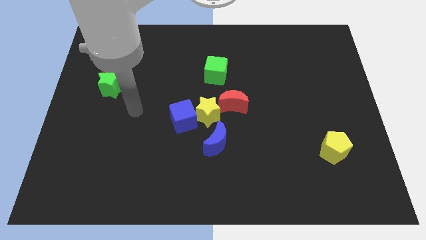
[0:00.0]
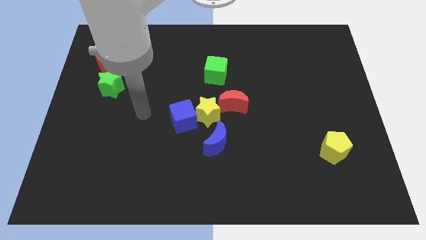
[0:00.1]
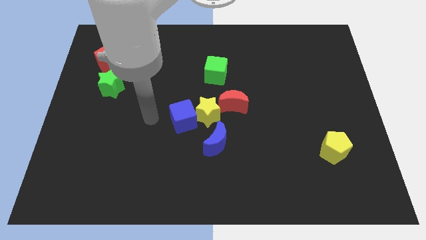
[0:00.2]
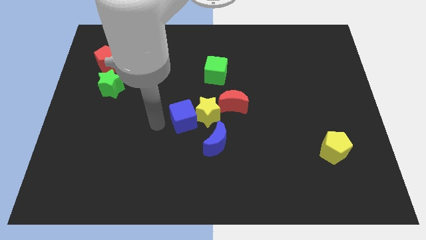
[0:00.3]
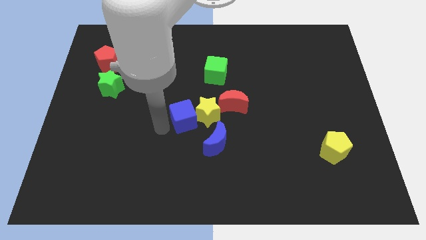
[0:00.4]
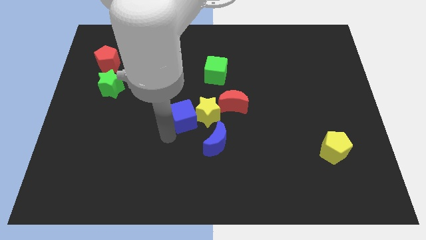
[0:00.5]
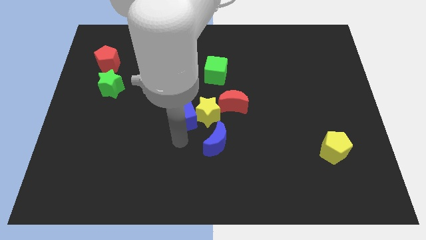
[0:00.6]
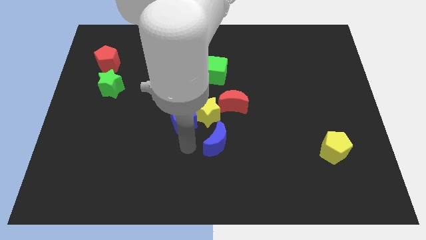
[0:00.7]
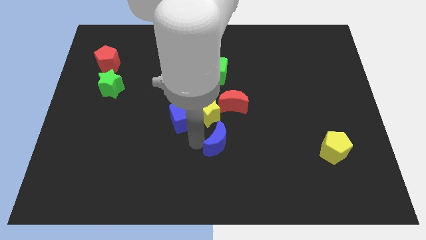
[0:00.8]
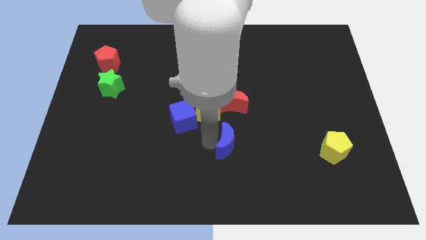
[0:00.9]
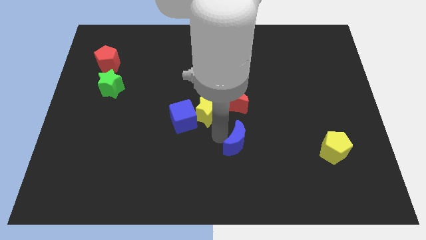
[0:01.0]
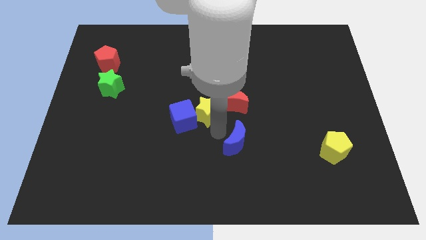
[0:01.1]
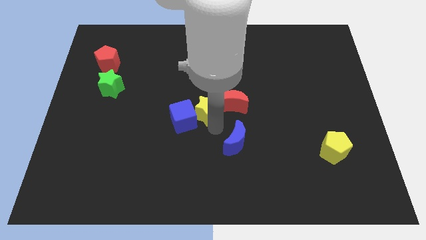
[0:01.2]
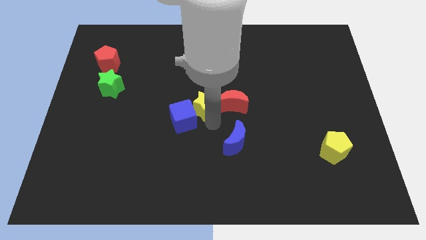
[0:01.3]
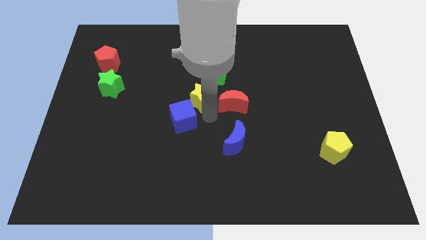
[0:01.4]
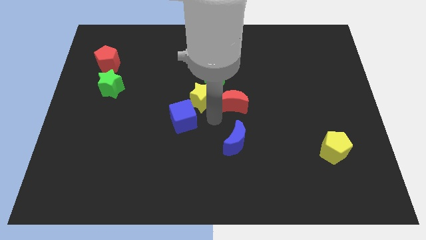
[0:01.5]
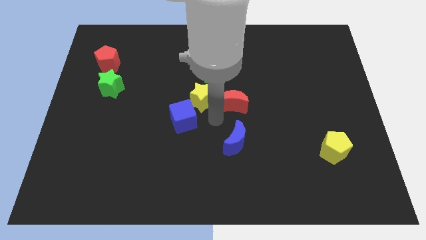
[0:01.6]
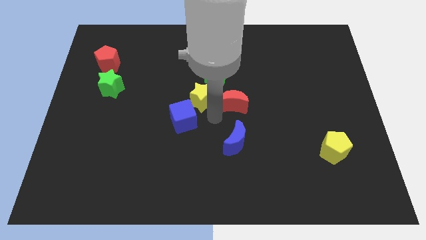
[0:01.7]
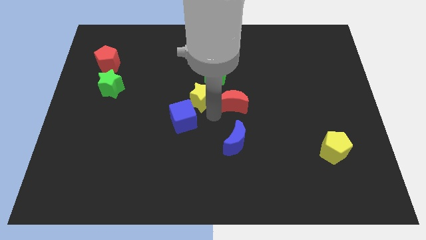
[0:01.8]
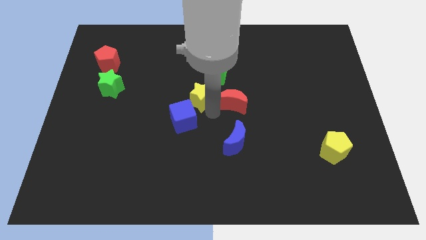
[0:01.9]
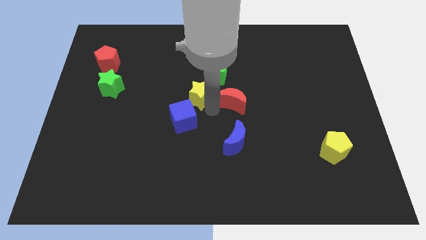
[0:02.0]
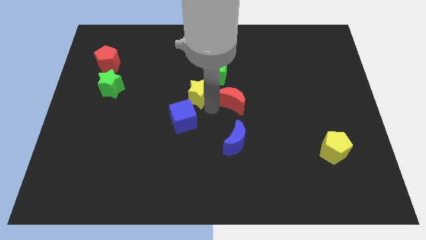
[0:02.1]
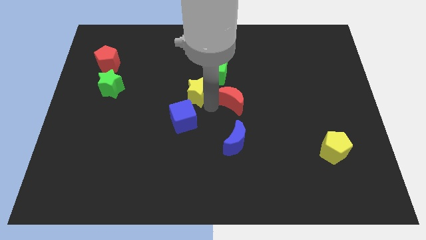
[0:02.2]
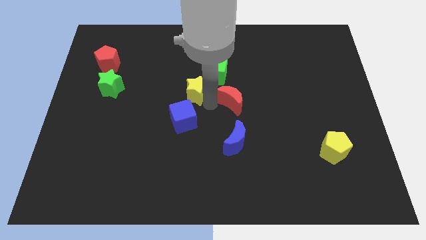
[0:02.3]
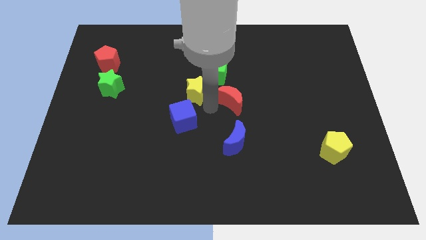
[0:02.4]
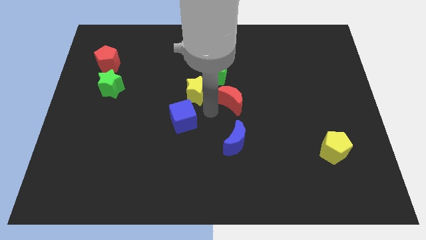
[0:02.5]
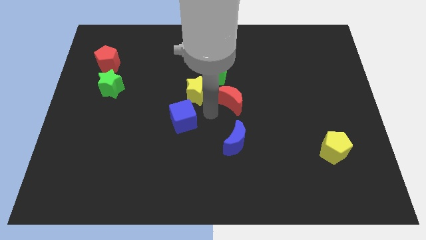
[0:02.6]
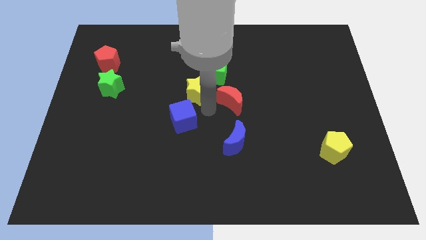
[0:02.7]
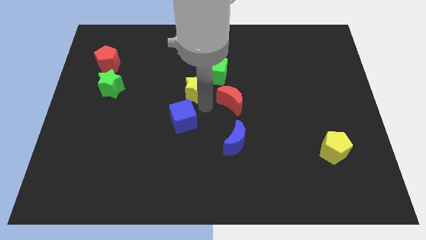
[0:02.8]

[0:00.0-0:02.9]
separate the yellow star from the blue cube, red moon, and blue moon

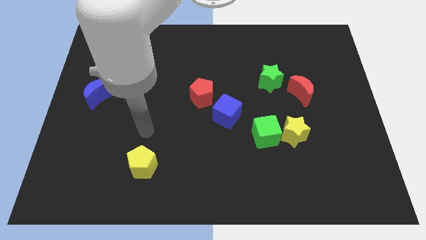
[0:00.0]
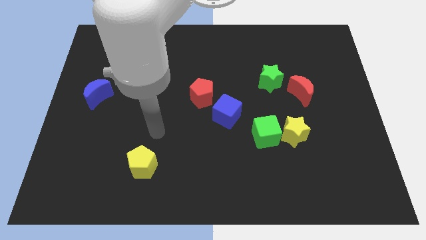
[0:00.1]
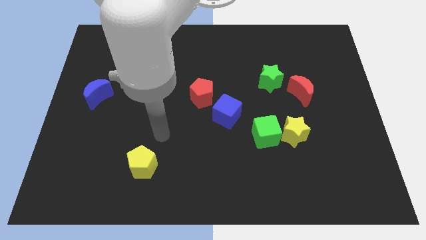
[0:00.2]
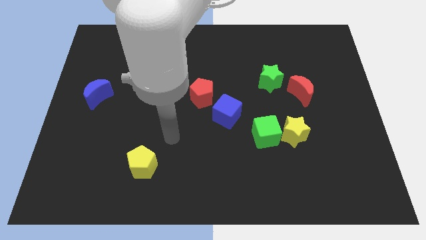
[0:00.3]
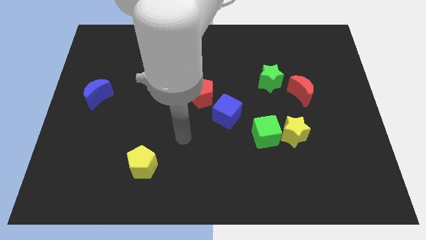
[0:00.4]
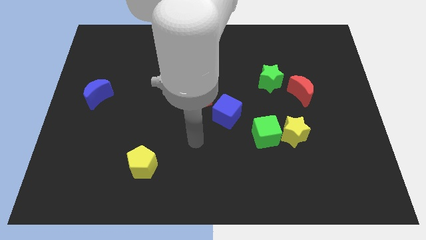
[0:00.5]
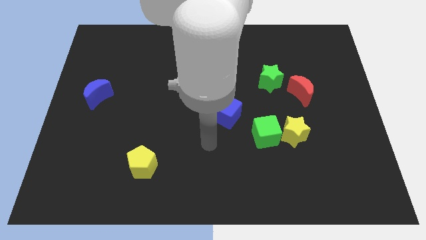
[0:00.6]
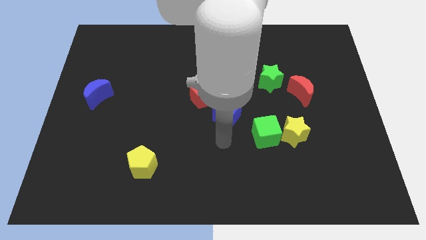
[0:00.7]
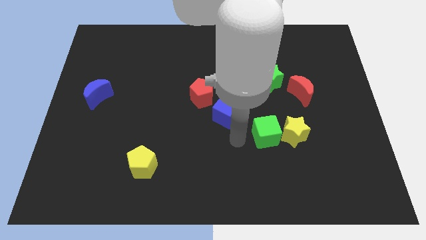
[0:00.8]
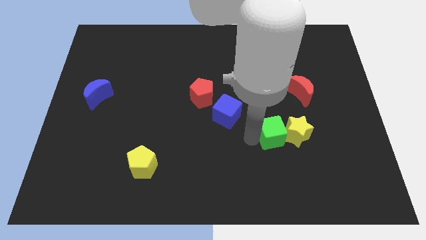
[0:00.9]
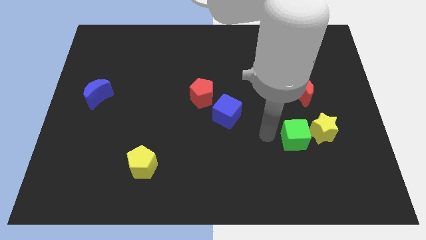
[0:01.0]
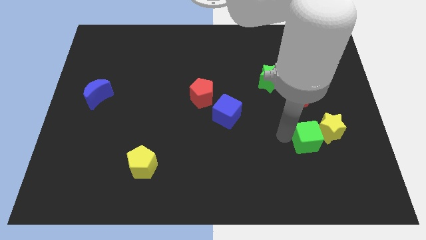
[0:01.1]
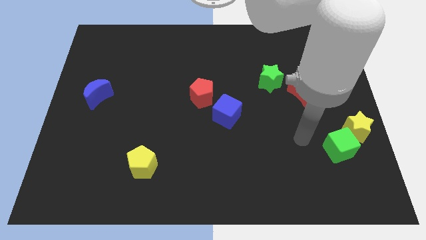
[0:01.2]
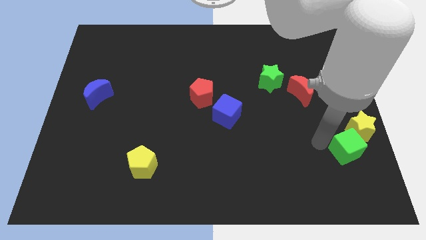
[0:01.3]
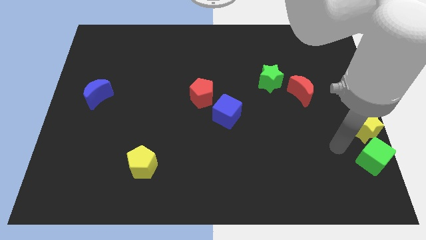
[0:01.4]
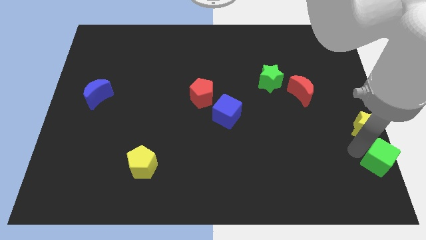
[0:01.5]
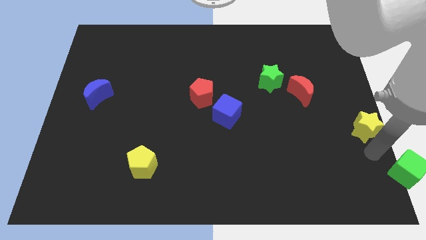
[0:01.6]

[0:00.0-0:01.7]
pull the yellow star apart from the green cube

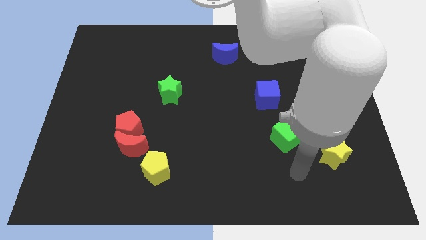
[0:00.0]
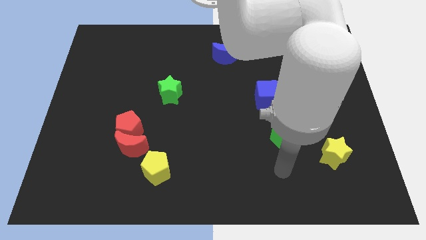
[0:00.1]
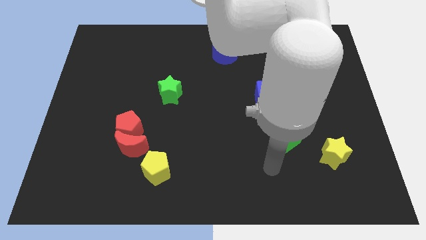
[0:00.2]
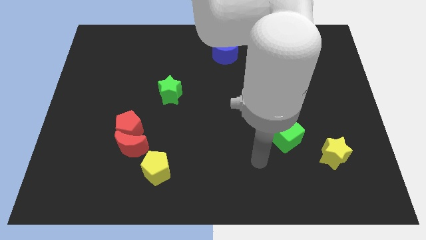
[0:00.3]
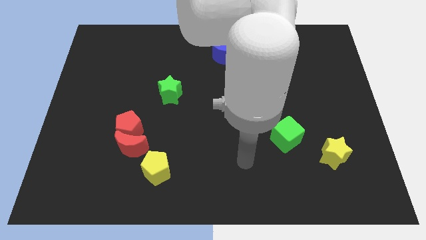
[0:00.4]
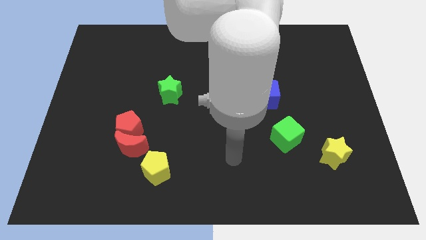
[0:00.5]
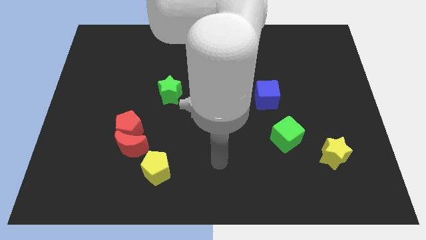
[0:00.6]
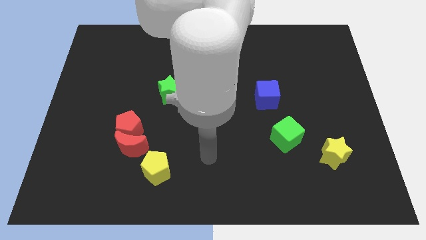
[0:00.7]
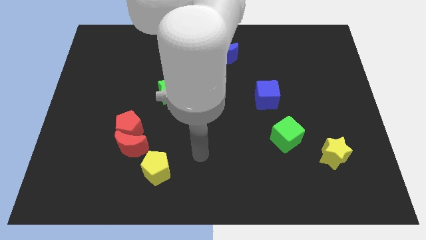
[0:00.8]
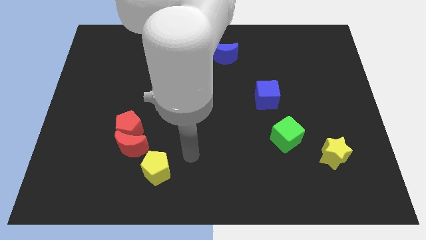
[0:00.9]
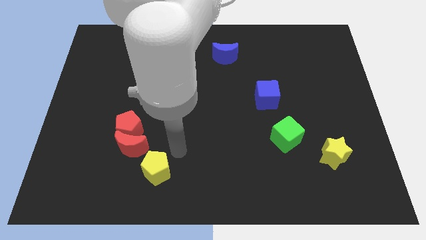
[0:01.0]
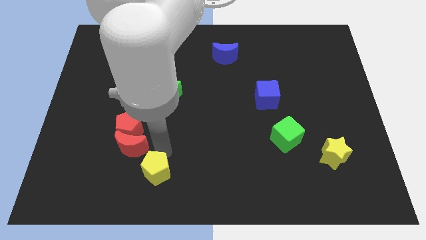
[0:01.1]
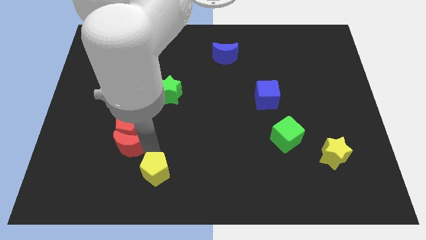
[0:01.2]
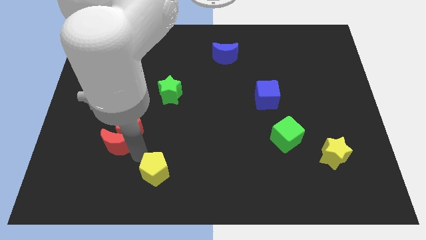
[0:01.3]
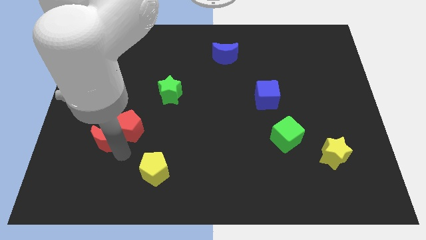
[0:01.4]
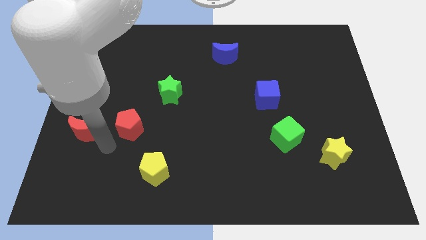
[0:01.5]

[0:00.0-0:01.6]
separate the red pentagon from the red moon

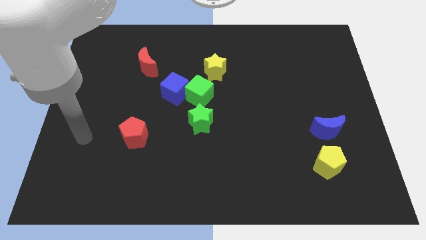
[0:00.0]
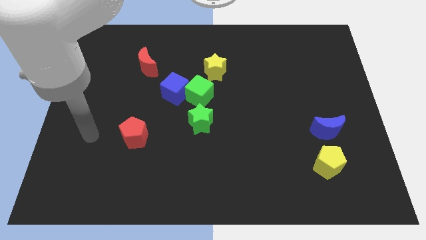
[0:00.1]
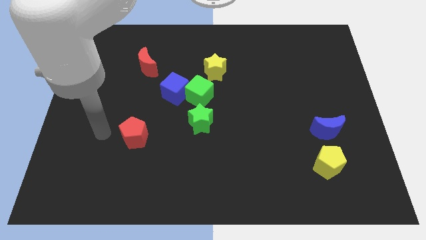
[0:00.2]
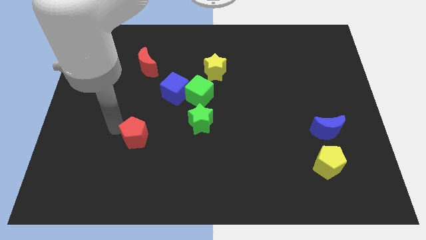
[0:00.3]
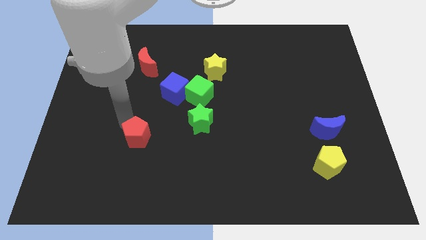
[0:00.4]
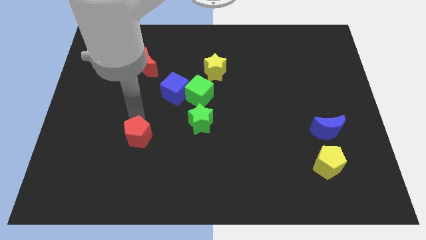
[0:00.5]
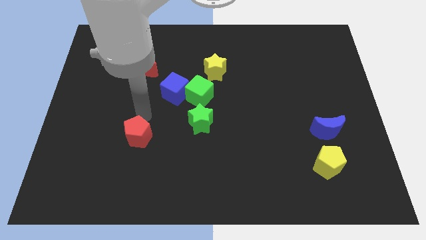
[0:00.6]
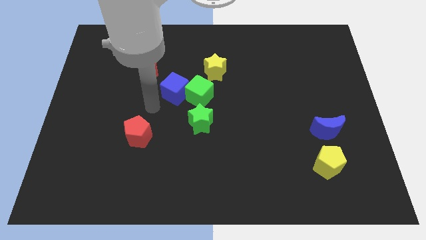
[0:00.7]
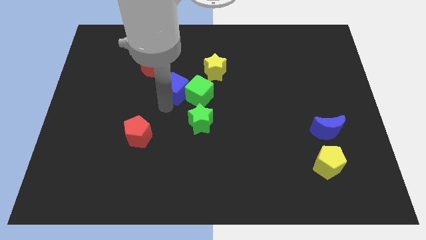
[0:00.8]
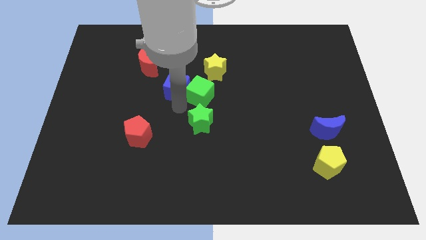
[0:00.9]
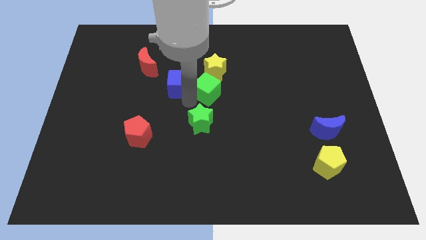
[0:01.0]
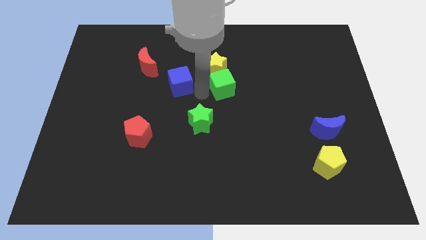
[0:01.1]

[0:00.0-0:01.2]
move the blue cube away from the green cube

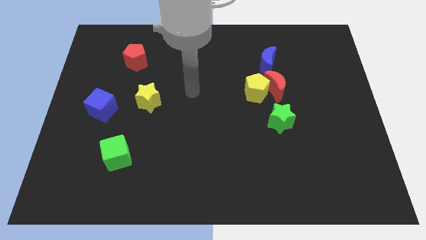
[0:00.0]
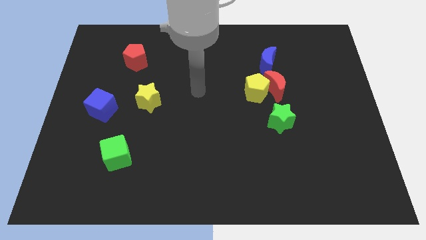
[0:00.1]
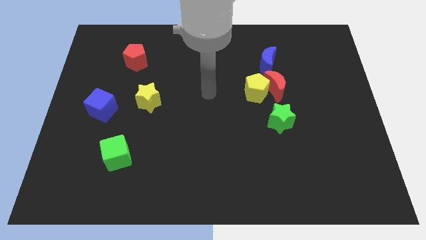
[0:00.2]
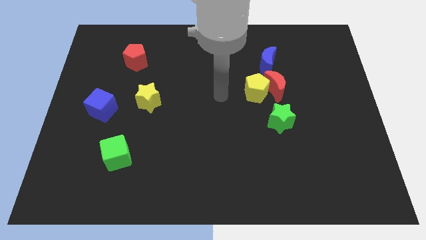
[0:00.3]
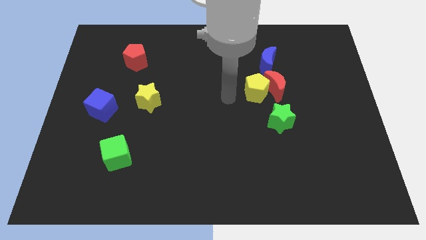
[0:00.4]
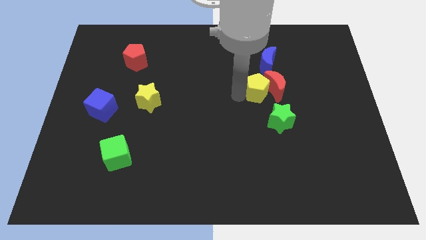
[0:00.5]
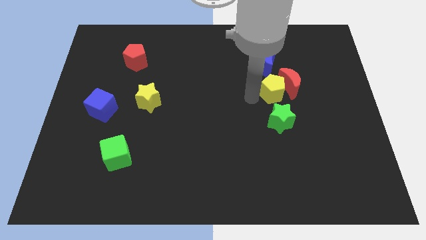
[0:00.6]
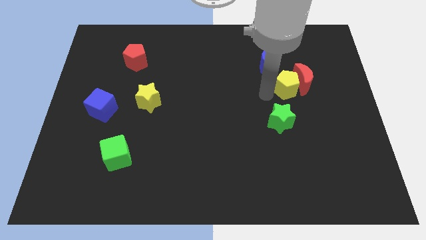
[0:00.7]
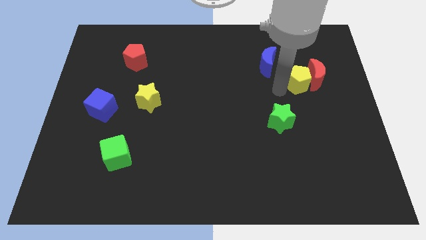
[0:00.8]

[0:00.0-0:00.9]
move the red moon away from the yellow pentagon, blue moon, and green star

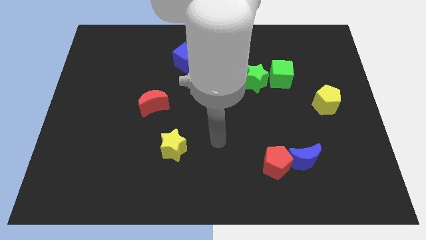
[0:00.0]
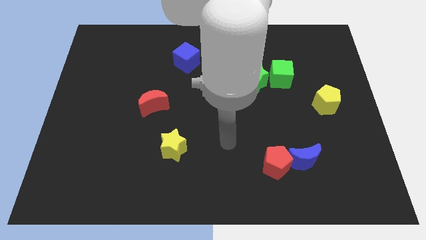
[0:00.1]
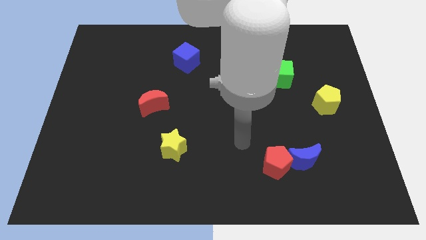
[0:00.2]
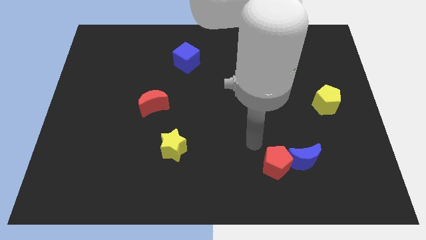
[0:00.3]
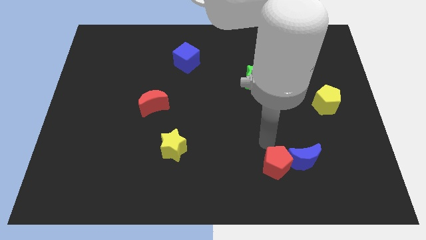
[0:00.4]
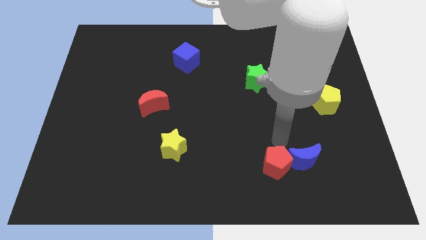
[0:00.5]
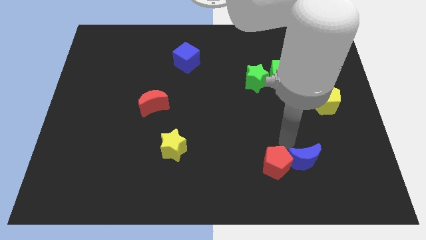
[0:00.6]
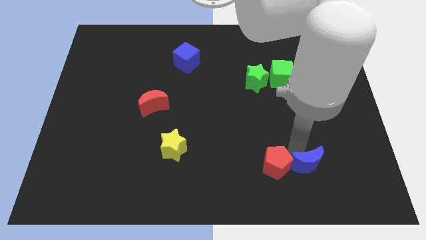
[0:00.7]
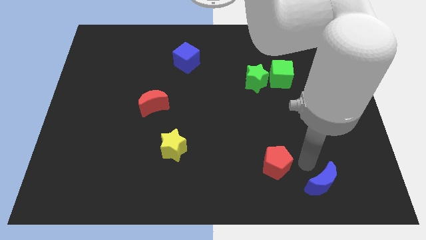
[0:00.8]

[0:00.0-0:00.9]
pull the red pentagon apart from the blue moon
